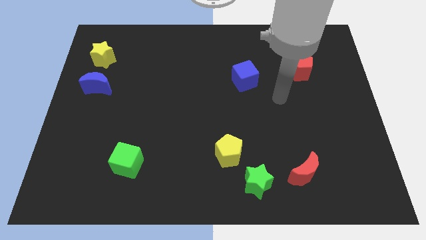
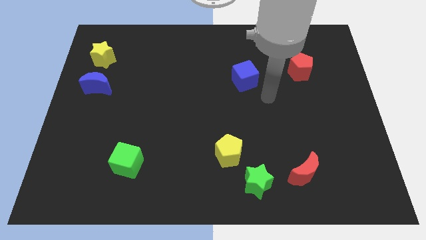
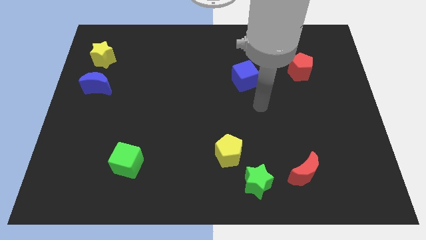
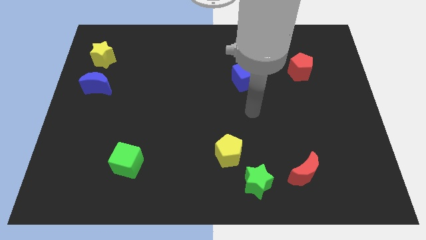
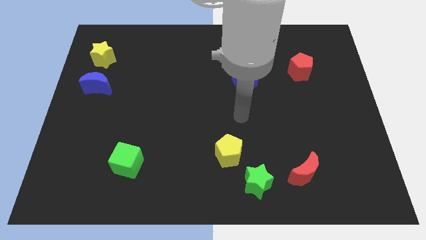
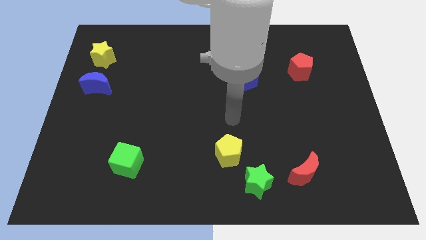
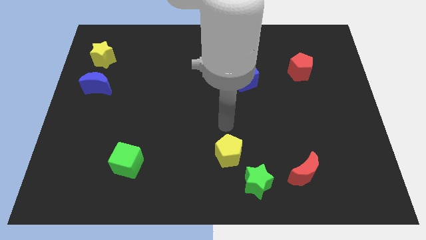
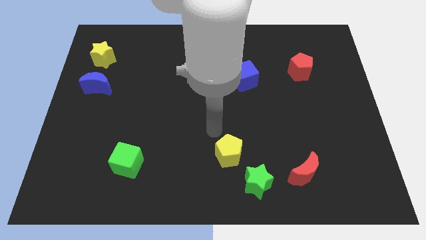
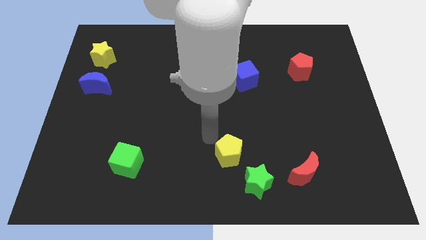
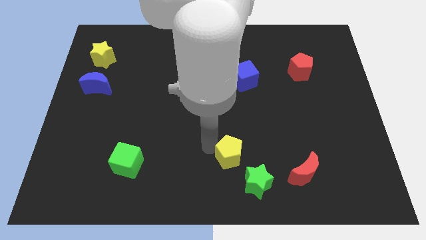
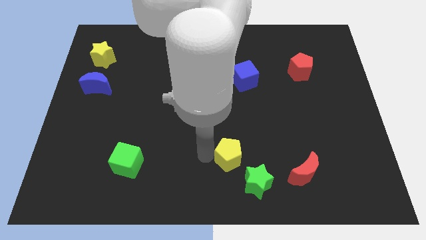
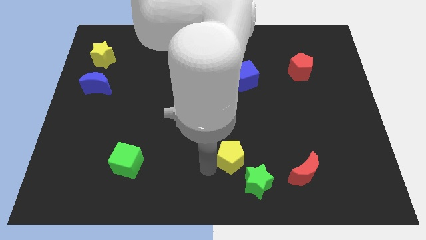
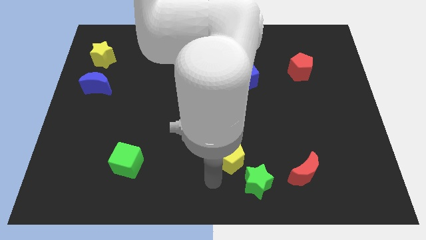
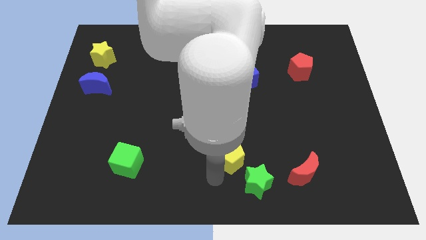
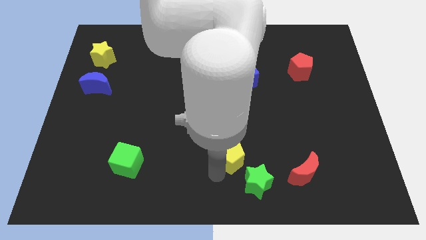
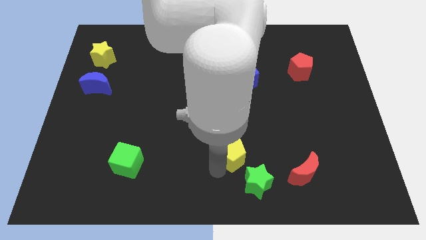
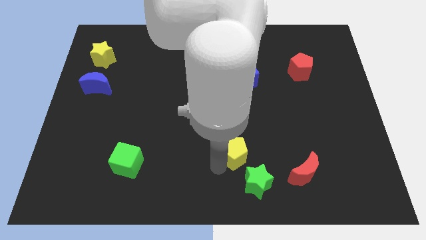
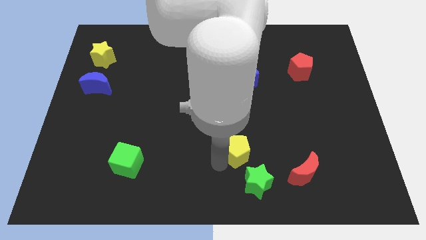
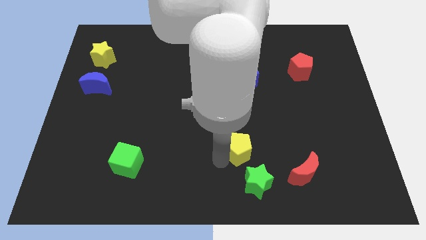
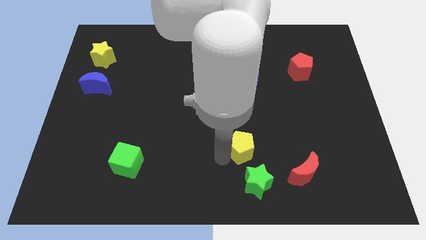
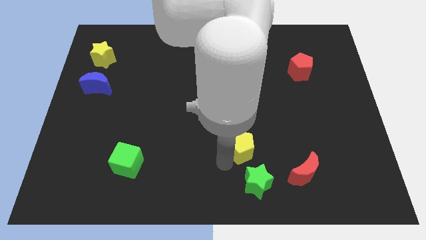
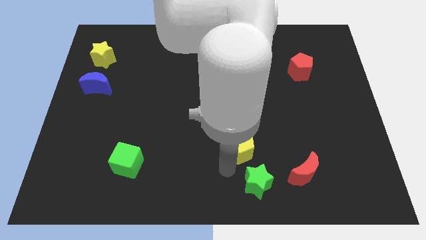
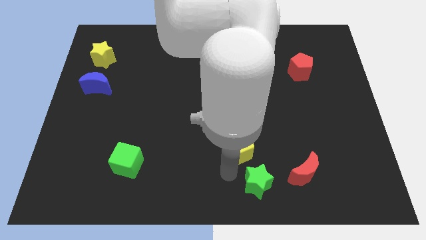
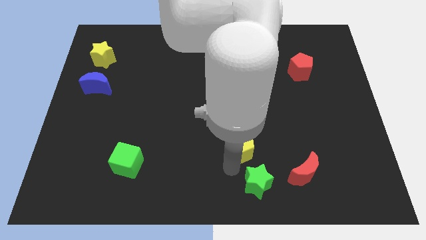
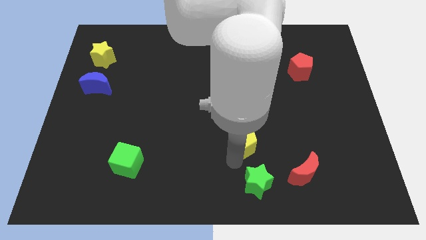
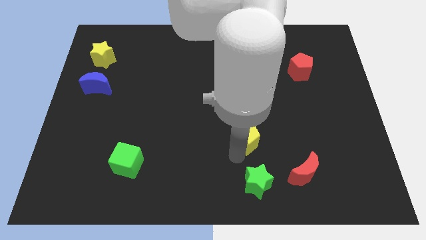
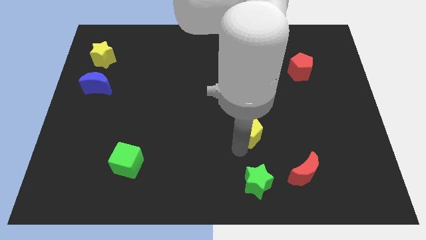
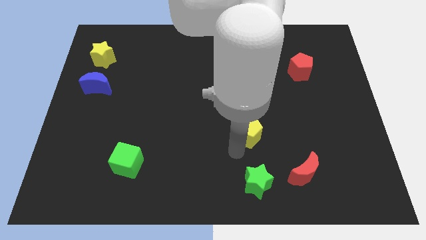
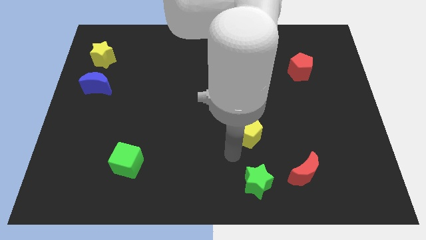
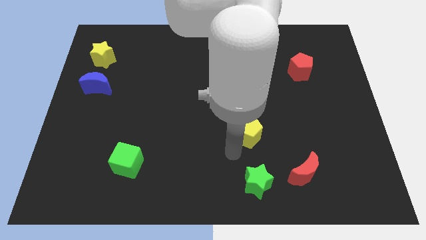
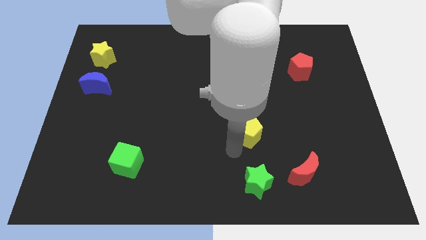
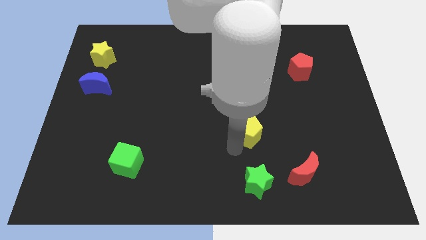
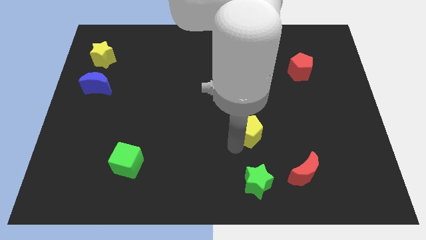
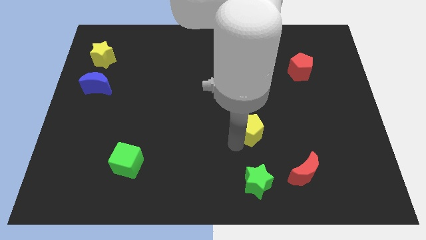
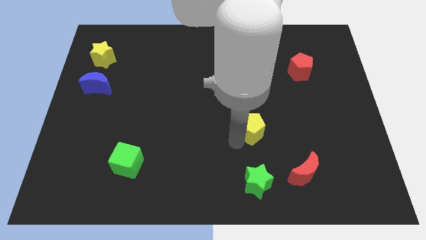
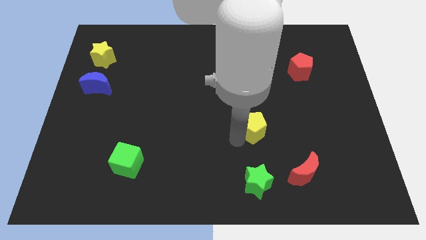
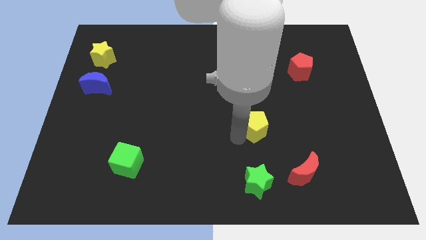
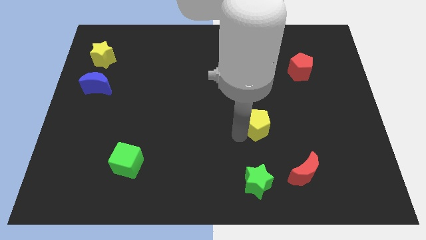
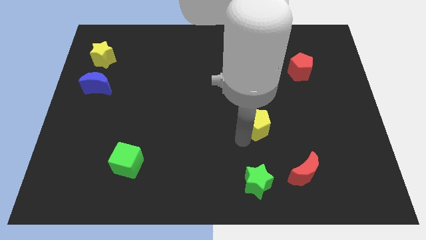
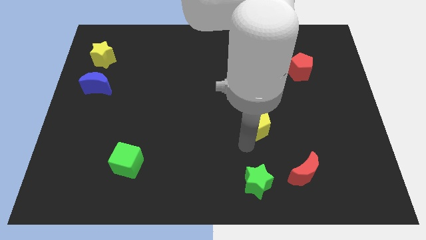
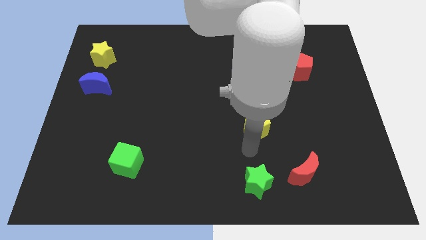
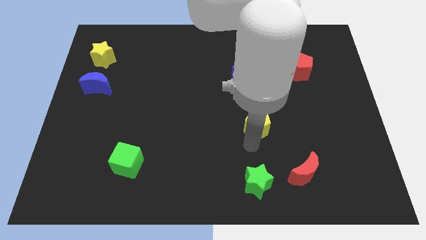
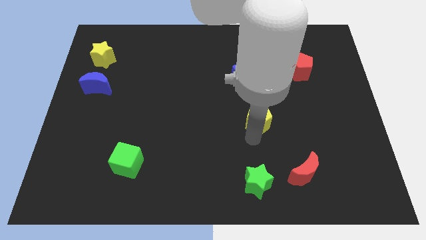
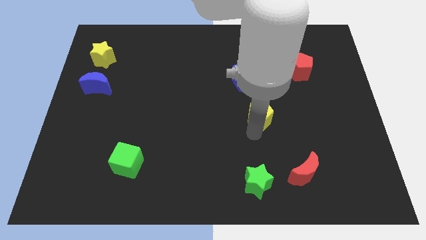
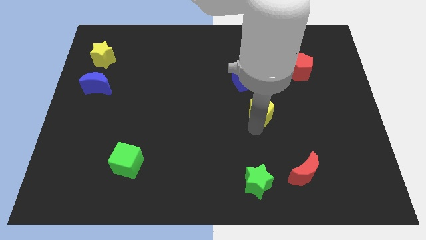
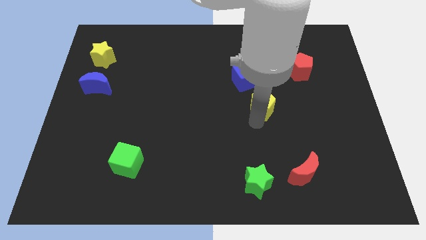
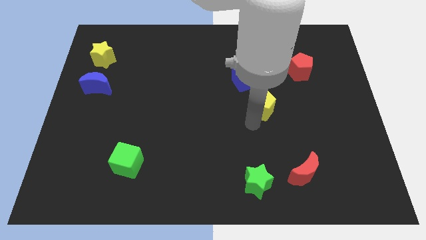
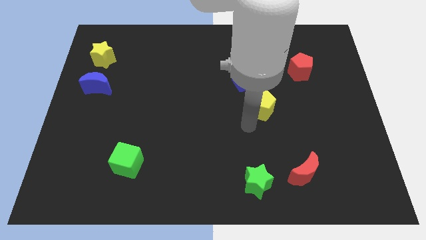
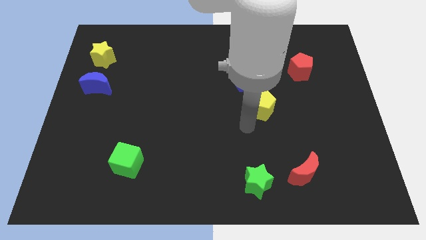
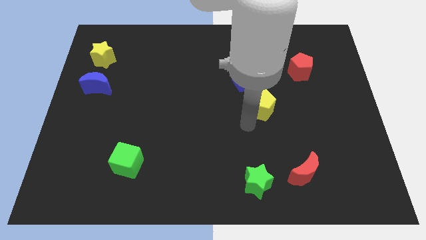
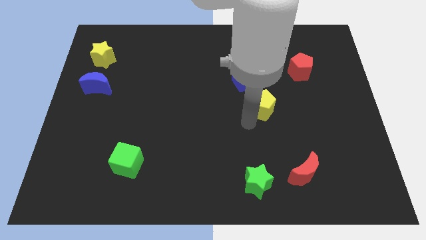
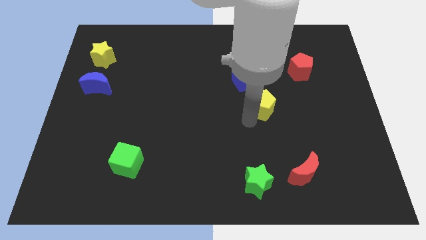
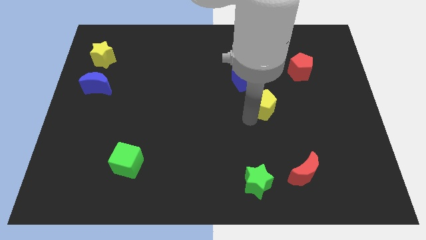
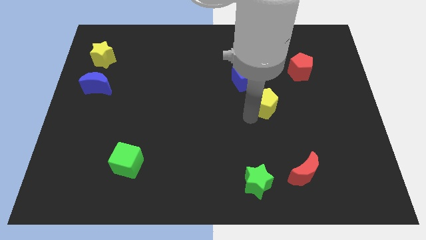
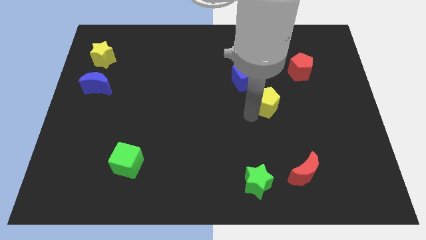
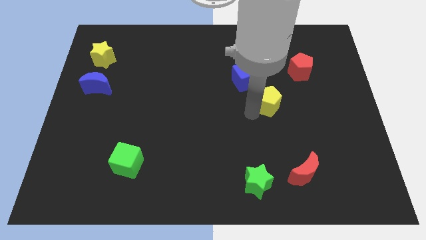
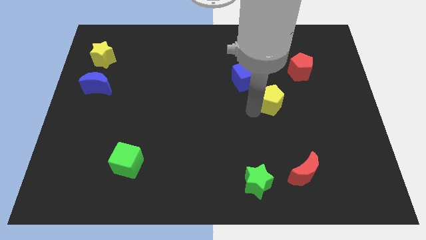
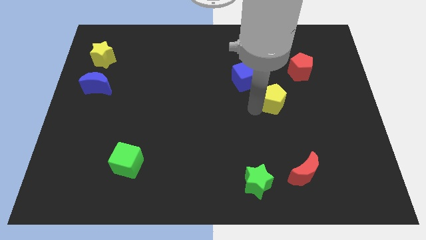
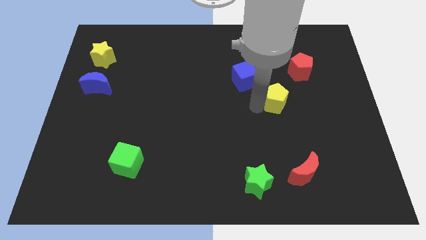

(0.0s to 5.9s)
put the yellow pentagon diagonally down and to the left of the red pentagon

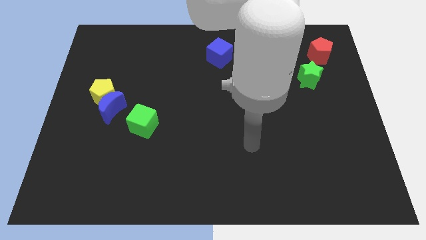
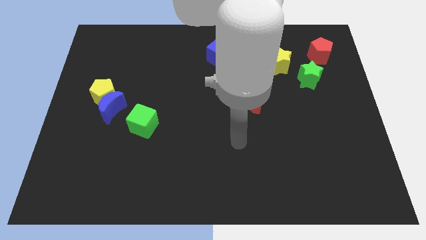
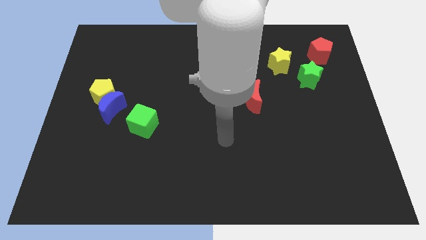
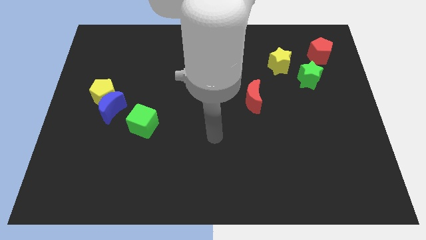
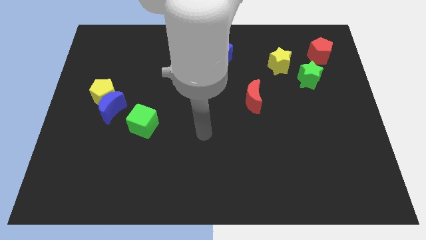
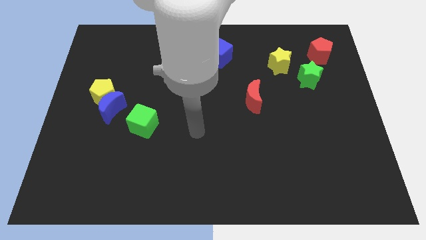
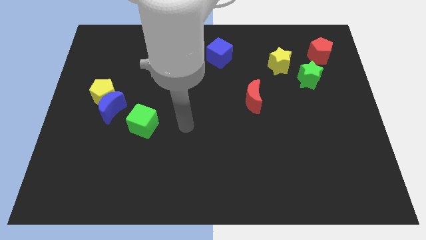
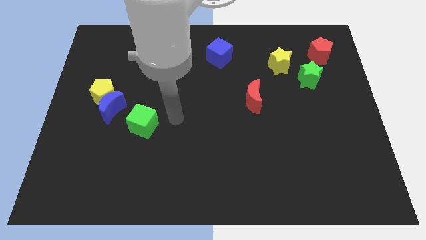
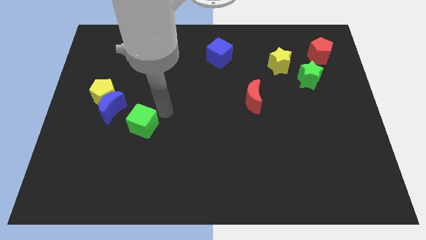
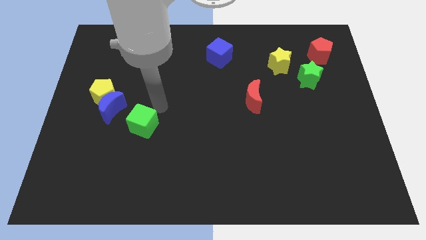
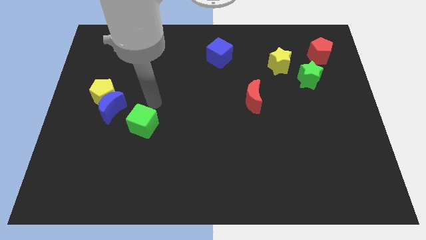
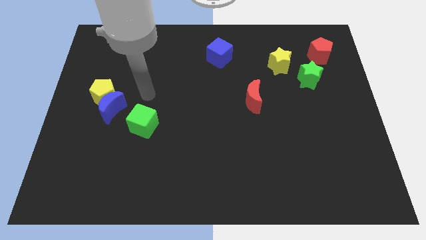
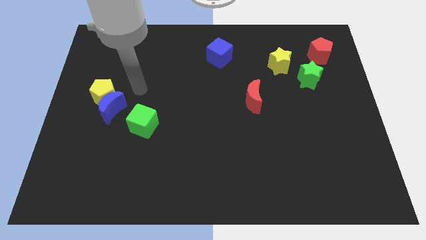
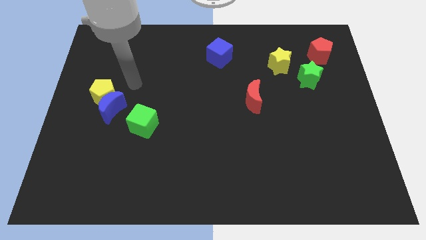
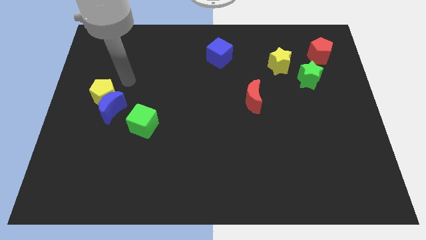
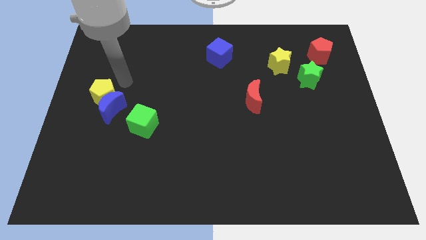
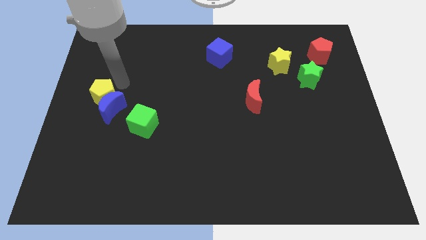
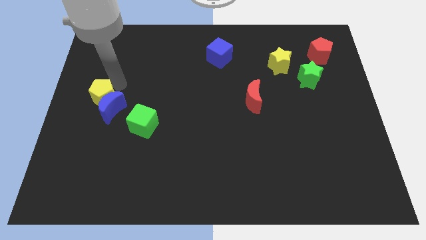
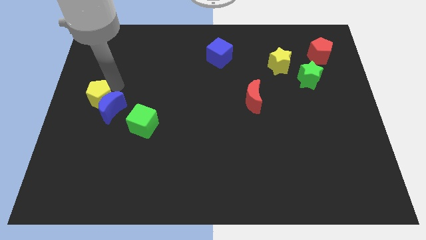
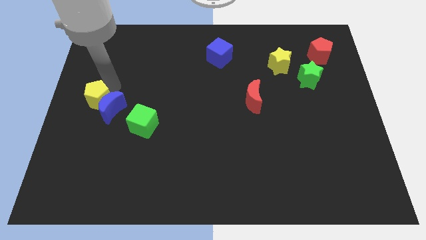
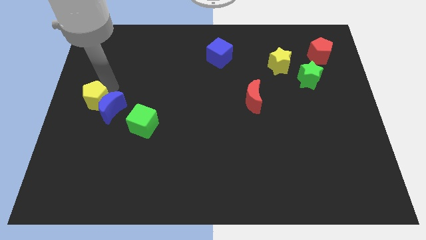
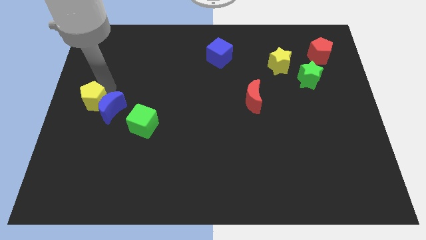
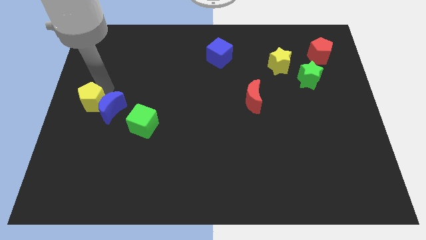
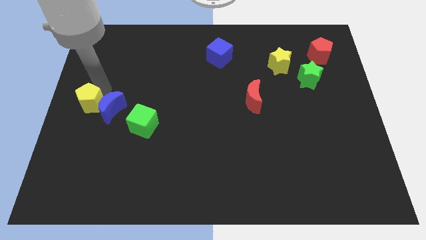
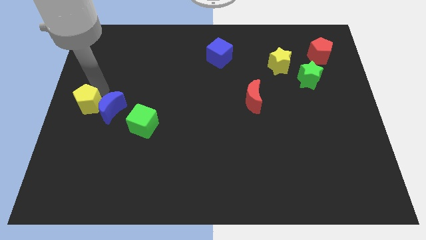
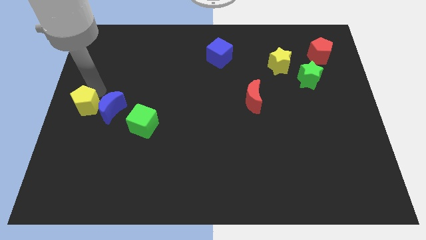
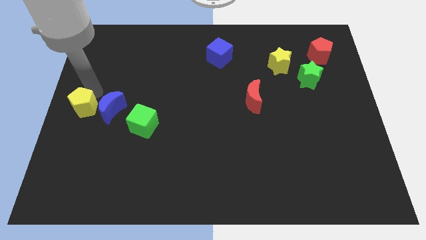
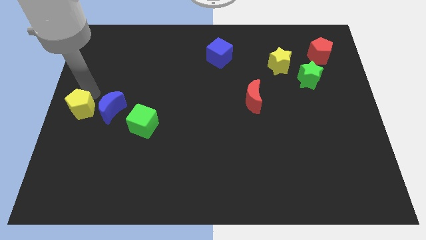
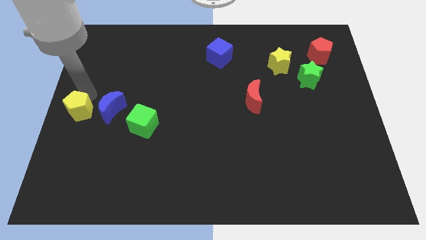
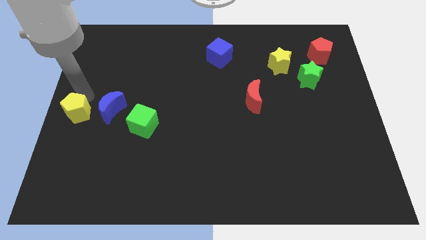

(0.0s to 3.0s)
put the yellow pentagon to the bottom left side of the blue moon
